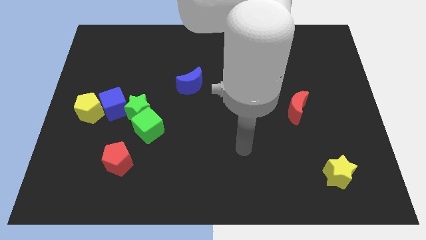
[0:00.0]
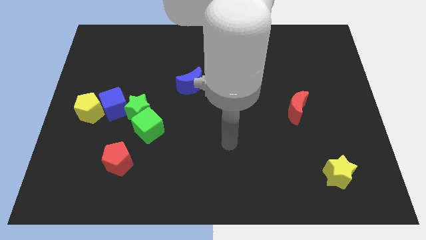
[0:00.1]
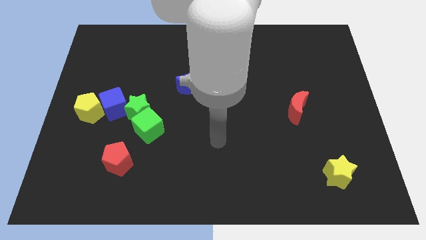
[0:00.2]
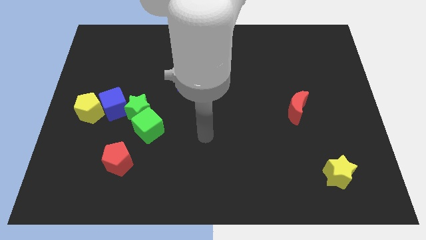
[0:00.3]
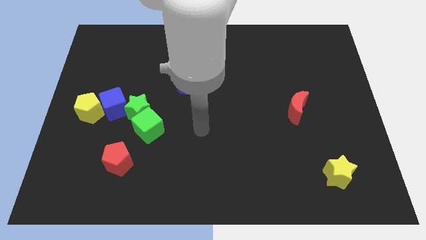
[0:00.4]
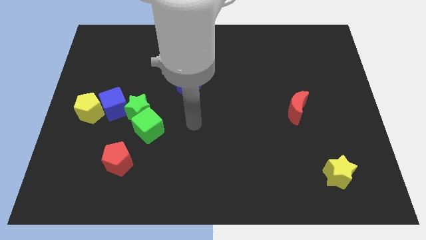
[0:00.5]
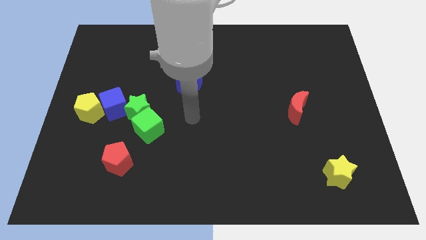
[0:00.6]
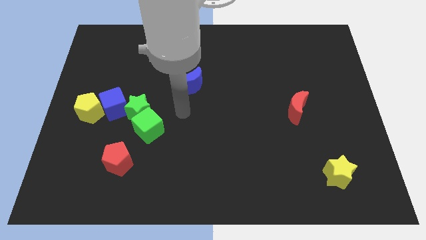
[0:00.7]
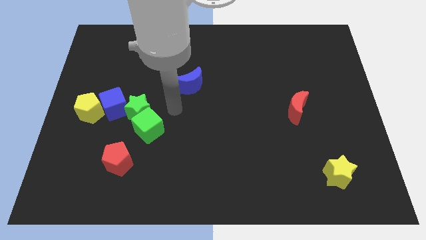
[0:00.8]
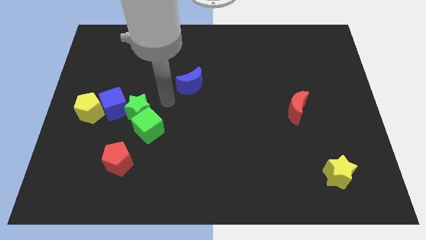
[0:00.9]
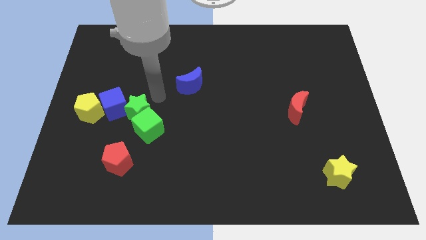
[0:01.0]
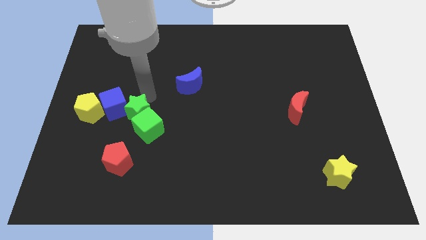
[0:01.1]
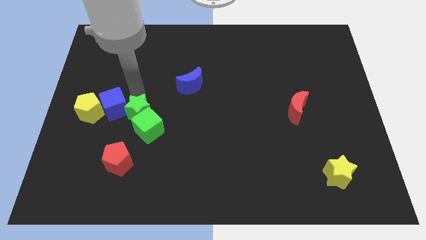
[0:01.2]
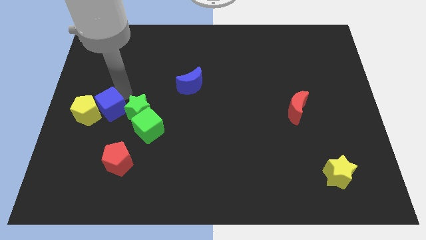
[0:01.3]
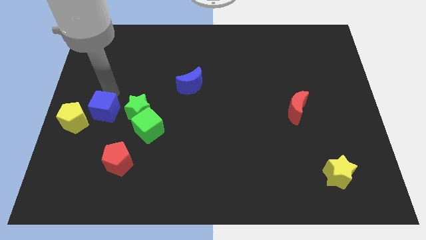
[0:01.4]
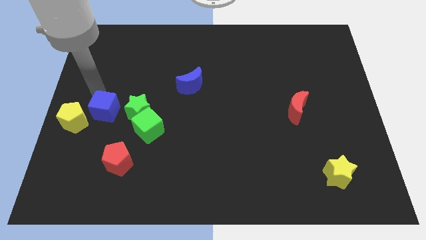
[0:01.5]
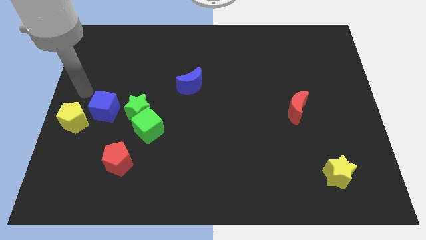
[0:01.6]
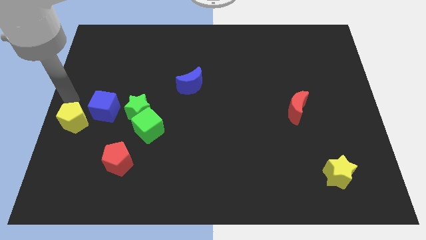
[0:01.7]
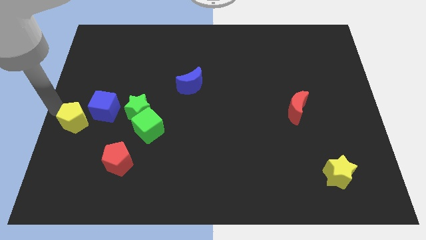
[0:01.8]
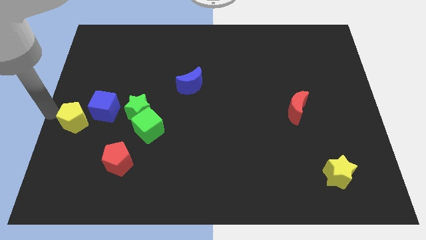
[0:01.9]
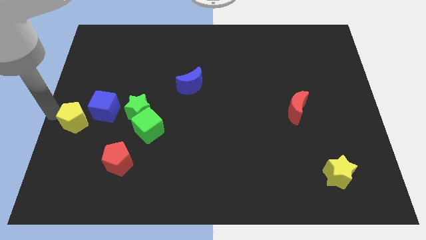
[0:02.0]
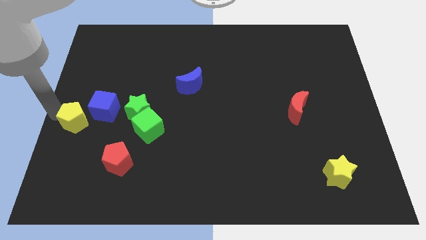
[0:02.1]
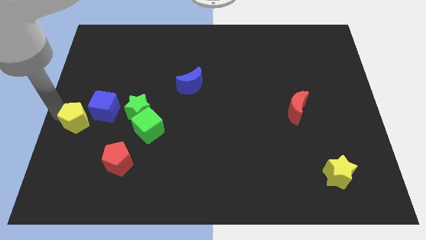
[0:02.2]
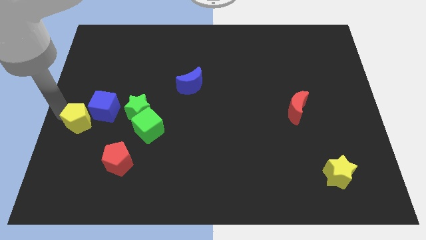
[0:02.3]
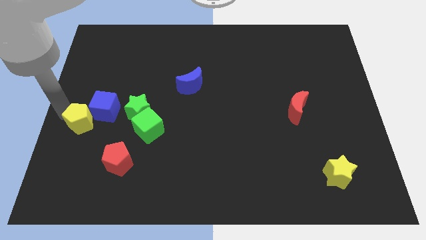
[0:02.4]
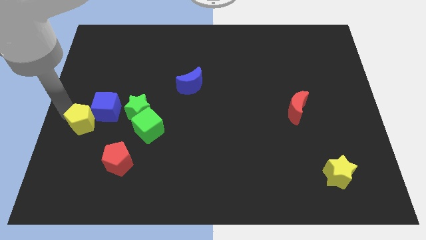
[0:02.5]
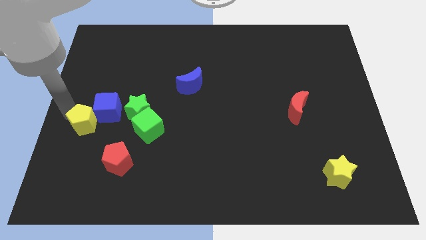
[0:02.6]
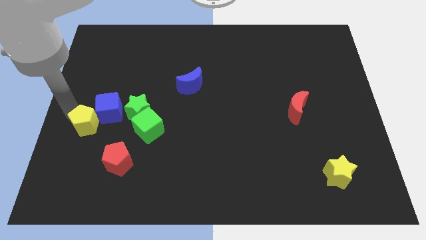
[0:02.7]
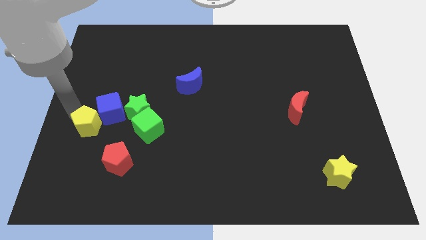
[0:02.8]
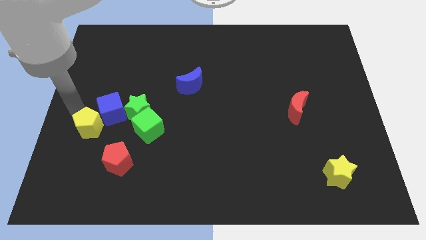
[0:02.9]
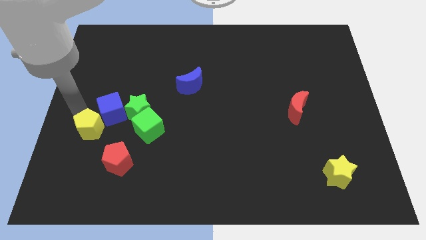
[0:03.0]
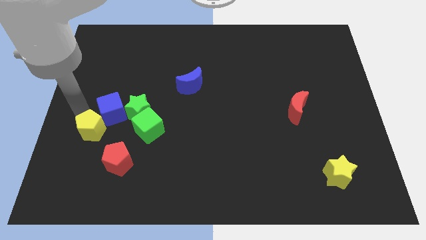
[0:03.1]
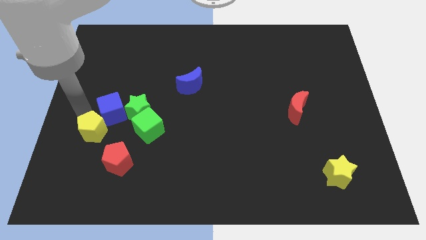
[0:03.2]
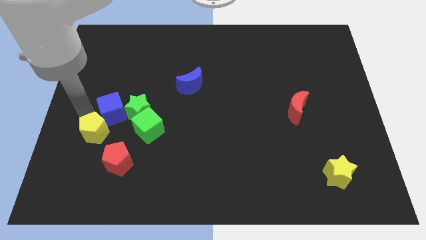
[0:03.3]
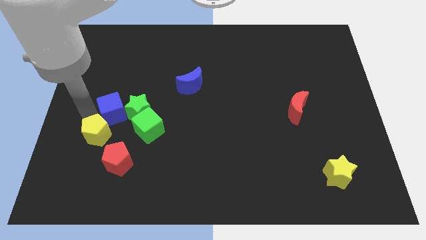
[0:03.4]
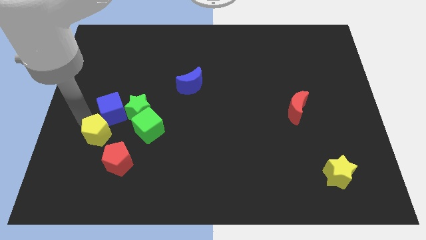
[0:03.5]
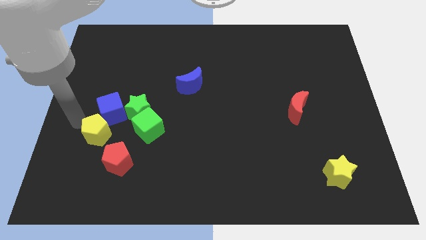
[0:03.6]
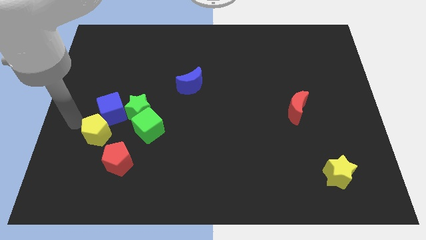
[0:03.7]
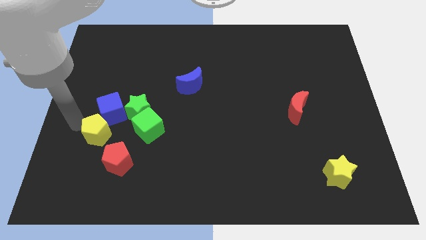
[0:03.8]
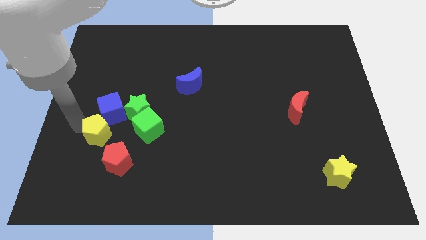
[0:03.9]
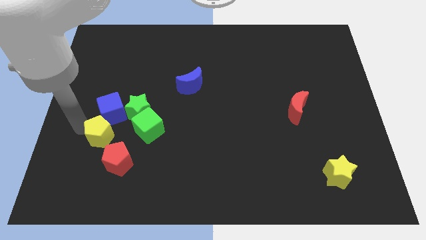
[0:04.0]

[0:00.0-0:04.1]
slide the yellow pentagon somewhat downwards and to the right diagonally

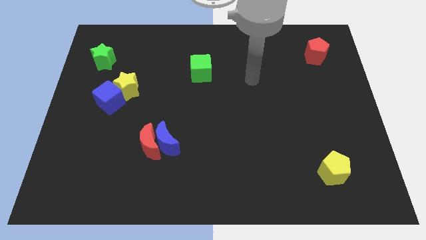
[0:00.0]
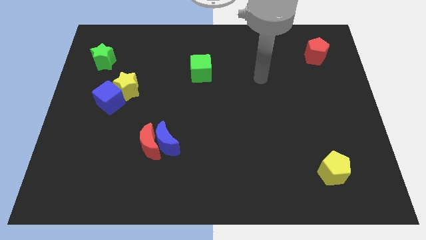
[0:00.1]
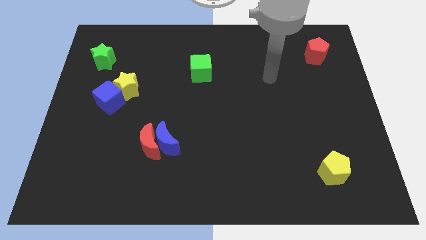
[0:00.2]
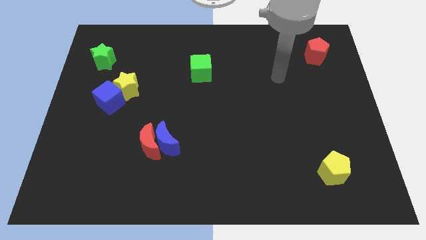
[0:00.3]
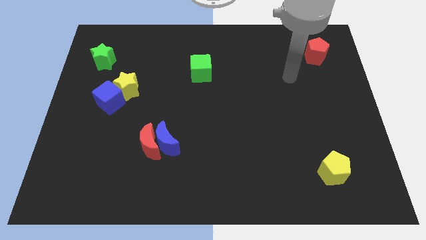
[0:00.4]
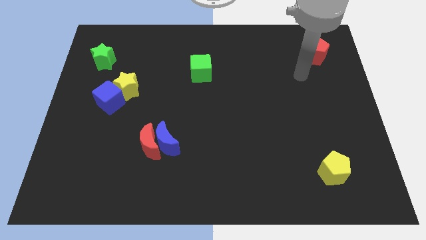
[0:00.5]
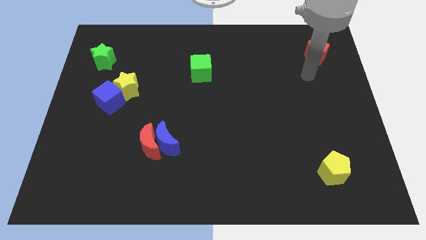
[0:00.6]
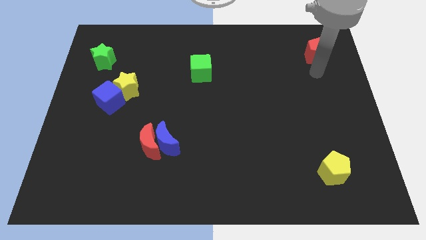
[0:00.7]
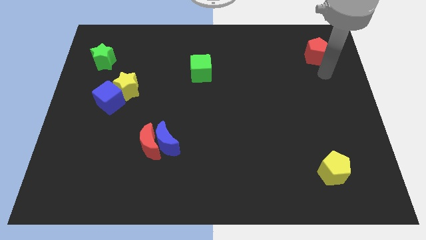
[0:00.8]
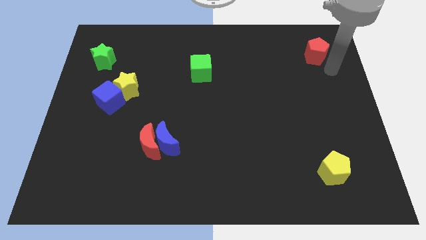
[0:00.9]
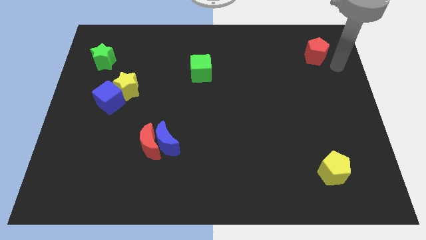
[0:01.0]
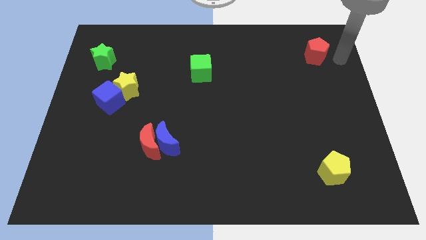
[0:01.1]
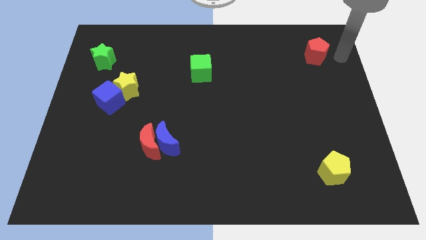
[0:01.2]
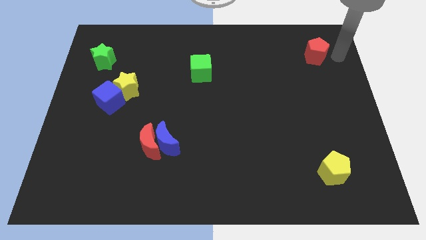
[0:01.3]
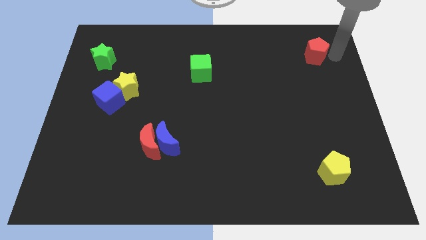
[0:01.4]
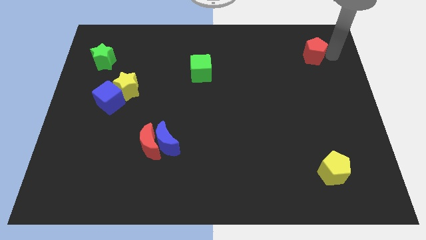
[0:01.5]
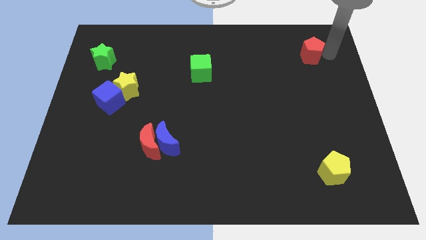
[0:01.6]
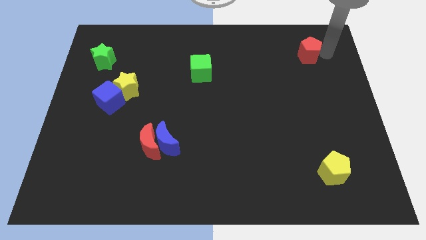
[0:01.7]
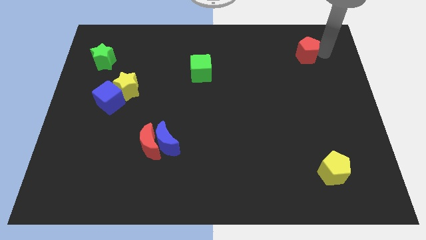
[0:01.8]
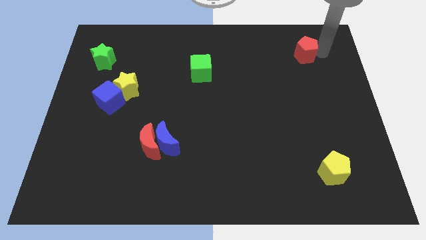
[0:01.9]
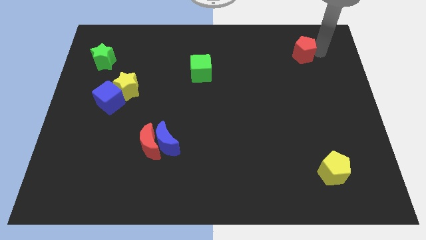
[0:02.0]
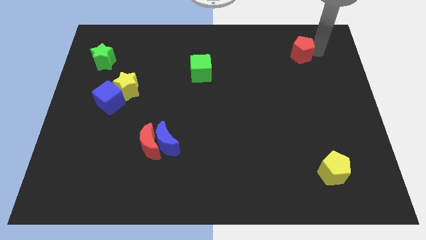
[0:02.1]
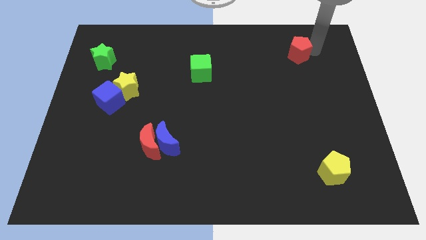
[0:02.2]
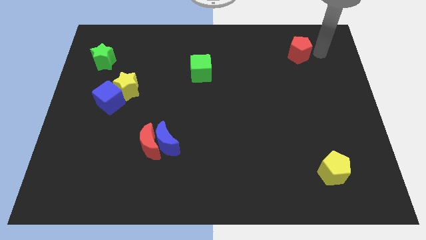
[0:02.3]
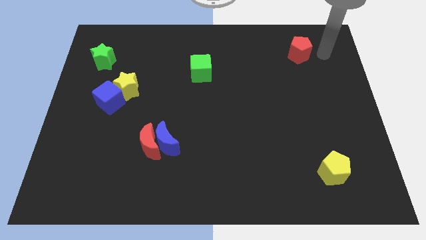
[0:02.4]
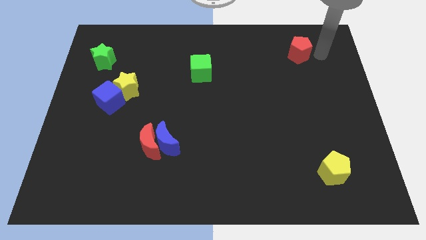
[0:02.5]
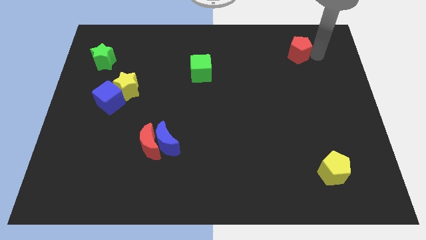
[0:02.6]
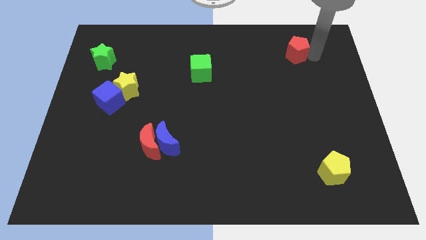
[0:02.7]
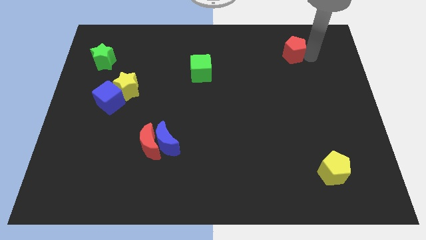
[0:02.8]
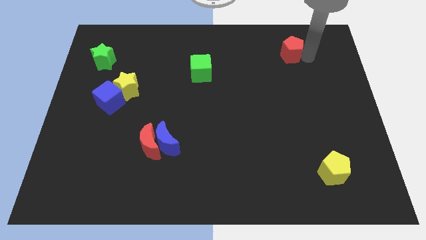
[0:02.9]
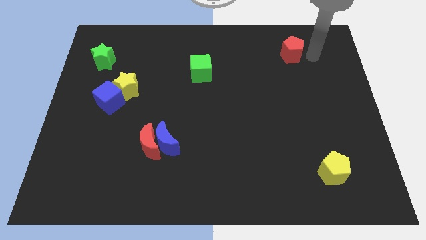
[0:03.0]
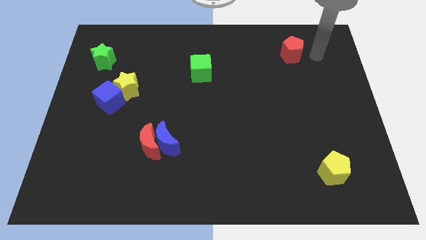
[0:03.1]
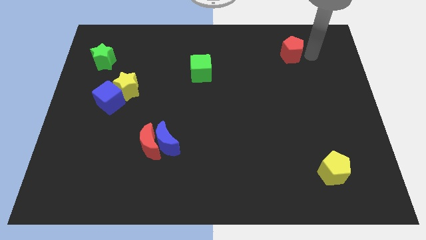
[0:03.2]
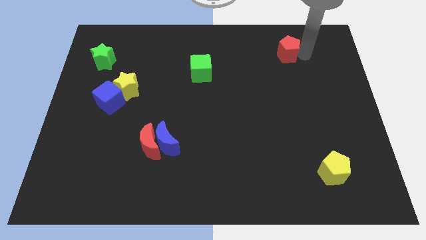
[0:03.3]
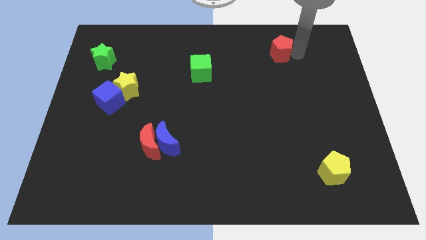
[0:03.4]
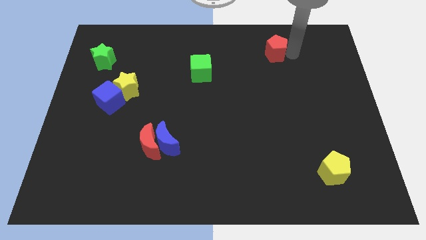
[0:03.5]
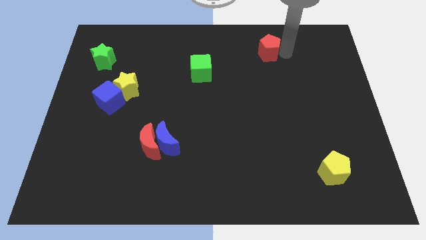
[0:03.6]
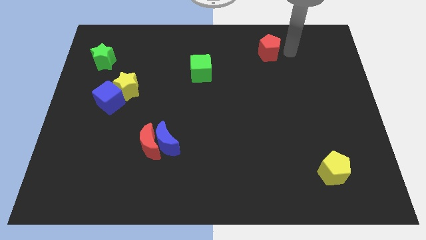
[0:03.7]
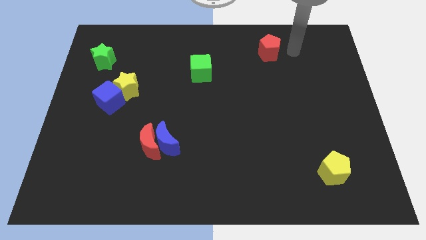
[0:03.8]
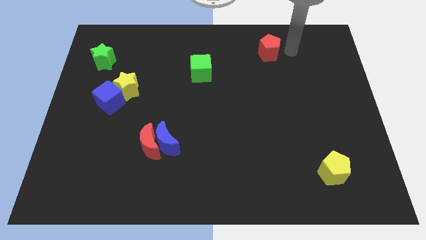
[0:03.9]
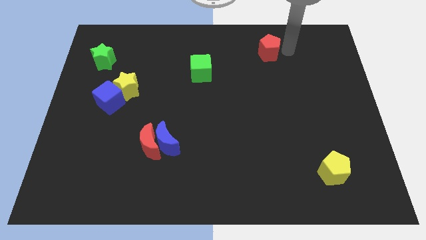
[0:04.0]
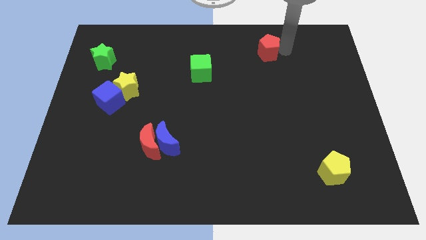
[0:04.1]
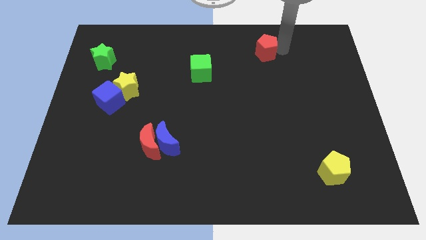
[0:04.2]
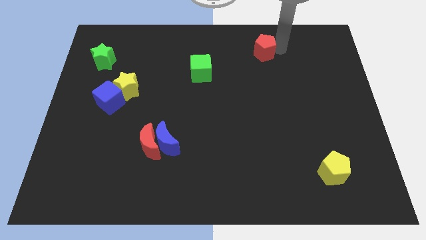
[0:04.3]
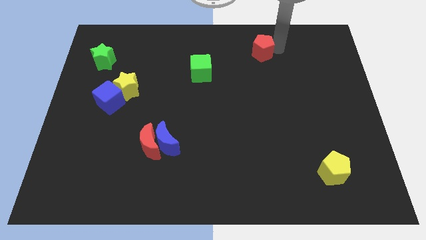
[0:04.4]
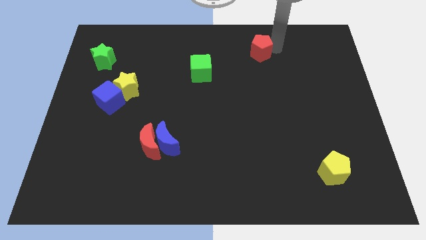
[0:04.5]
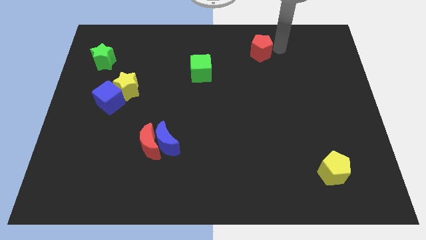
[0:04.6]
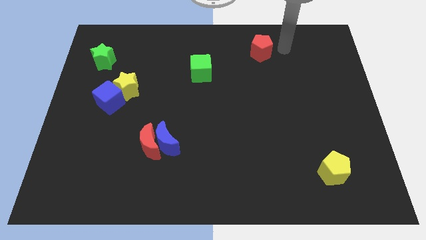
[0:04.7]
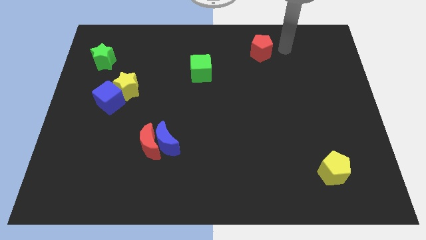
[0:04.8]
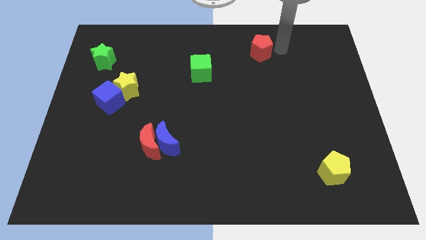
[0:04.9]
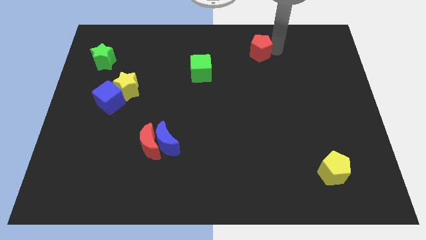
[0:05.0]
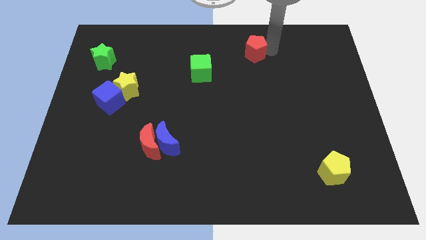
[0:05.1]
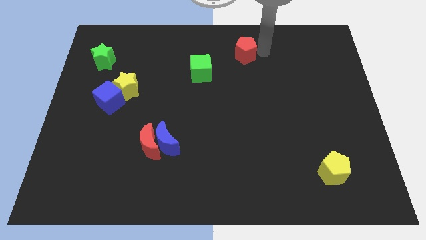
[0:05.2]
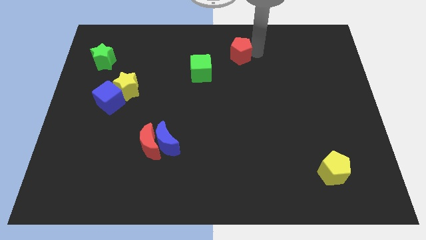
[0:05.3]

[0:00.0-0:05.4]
move the red pentagon left
